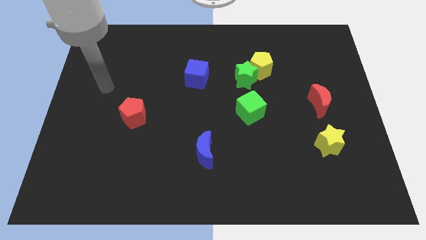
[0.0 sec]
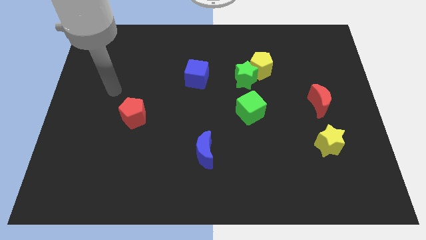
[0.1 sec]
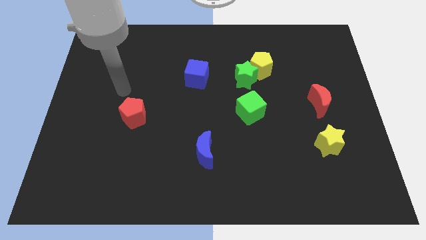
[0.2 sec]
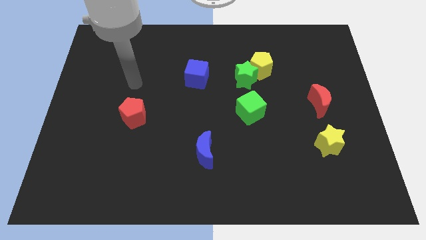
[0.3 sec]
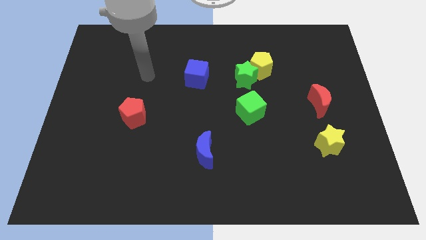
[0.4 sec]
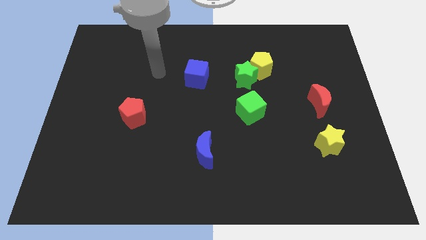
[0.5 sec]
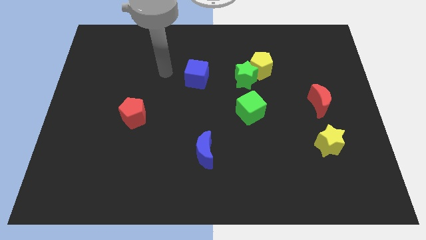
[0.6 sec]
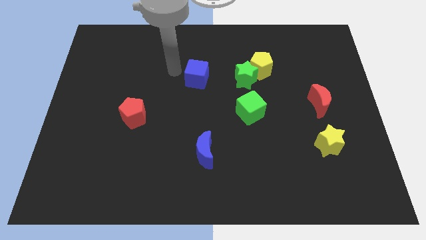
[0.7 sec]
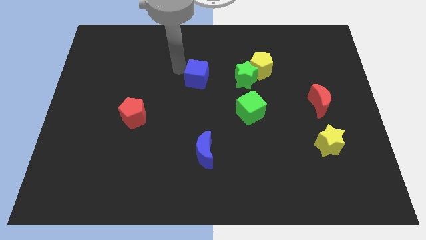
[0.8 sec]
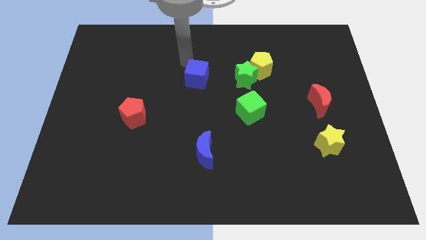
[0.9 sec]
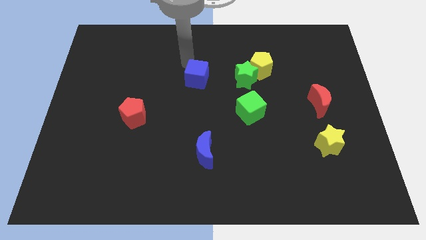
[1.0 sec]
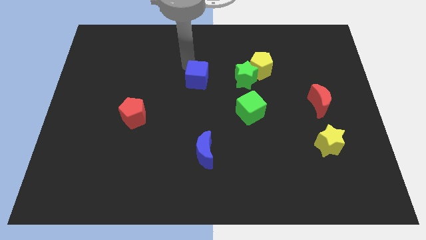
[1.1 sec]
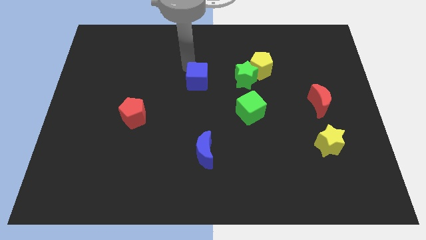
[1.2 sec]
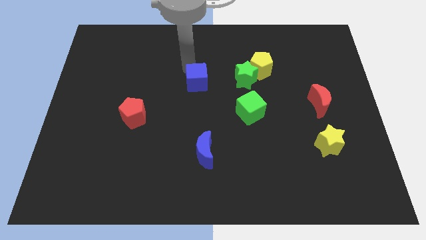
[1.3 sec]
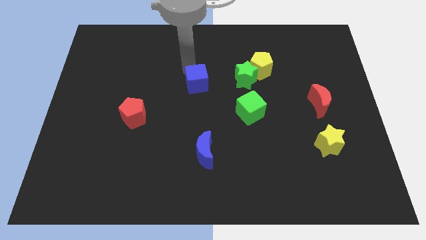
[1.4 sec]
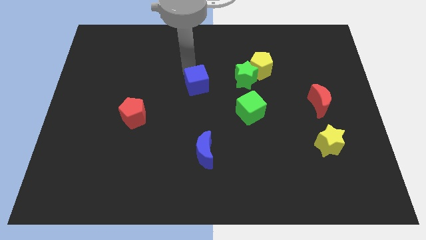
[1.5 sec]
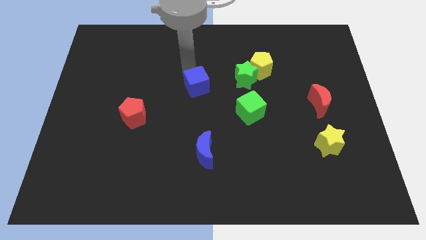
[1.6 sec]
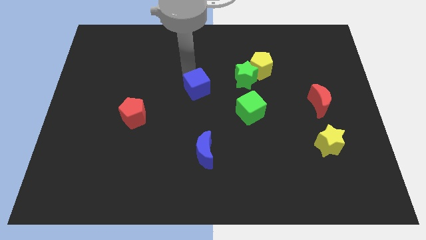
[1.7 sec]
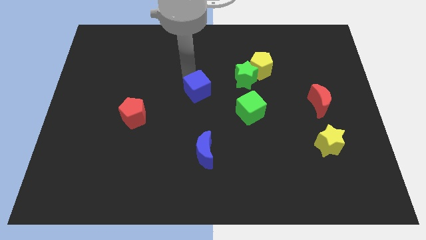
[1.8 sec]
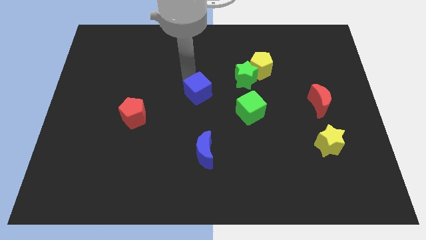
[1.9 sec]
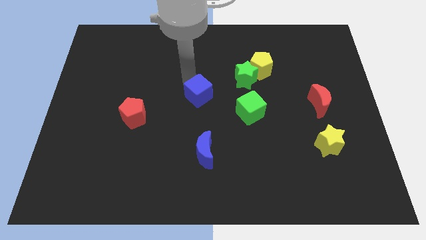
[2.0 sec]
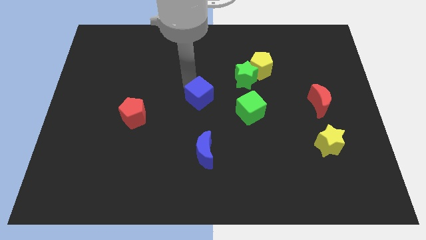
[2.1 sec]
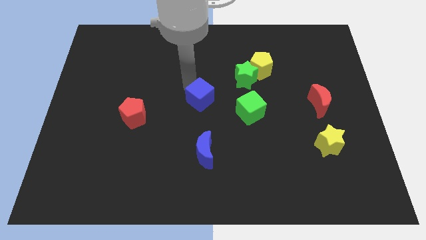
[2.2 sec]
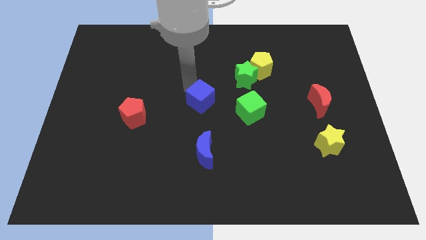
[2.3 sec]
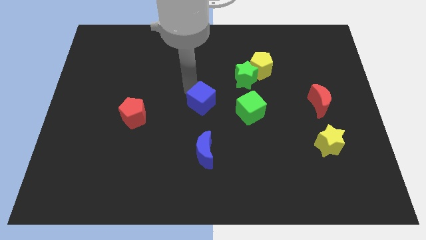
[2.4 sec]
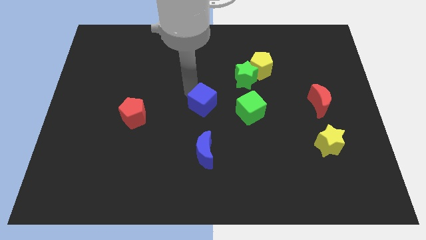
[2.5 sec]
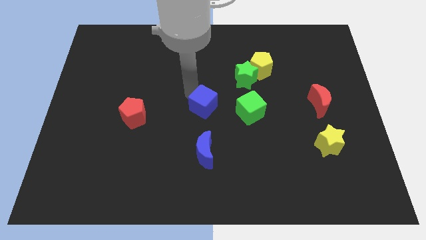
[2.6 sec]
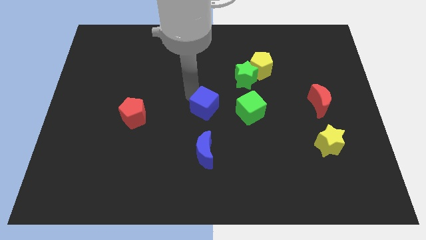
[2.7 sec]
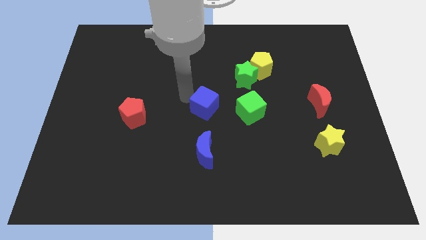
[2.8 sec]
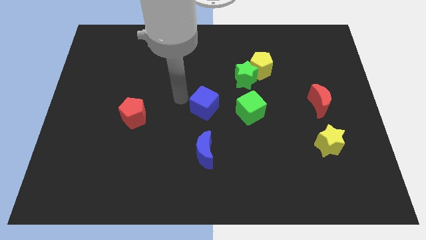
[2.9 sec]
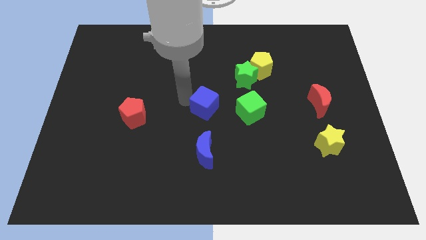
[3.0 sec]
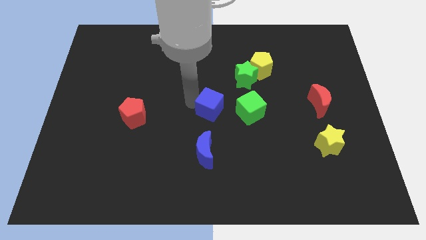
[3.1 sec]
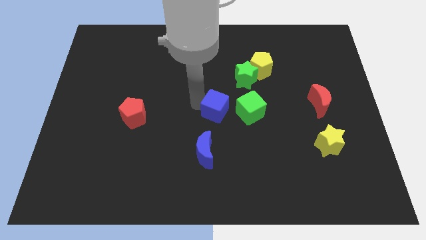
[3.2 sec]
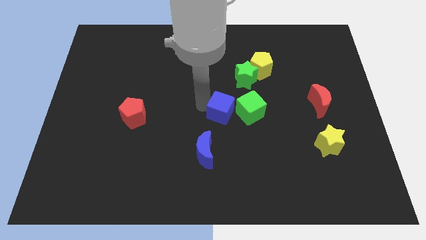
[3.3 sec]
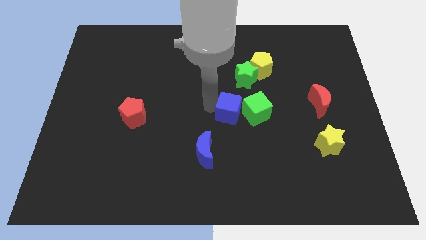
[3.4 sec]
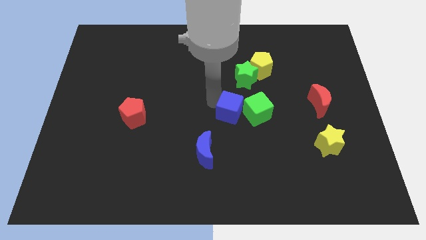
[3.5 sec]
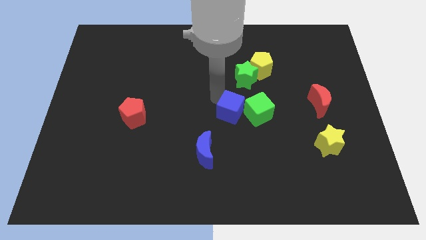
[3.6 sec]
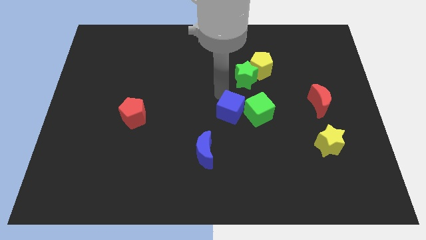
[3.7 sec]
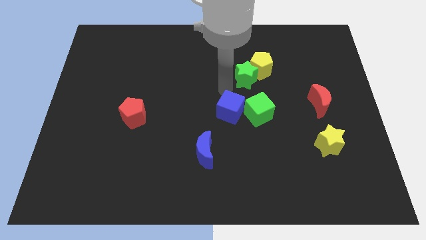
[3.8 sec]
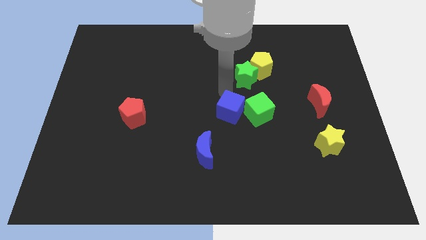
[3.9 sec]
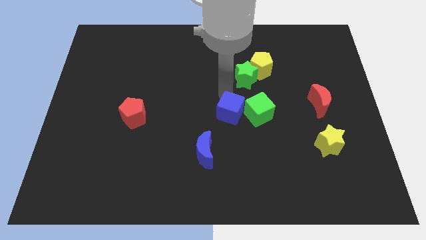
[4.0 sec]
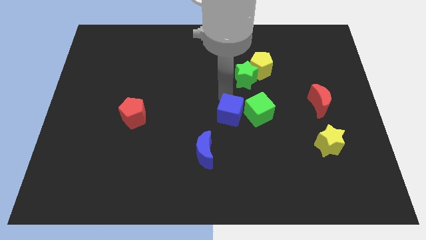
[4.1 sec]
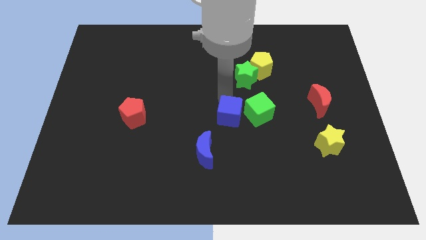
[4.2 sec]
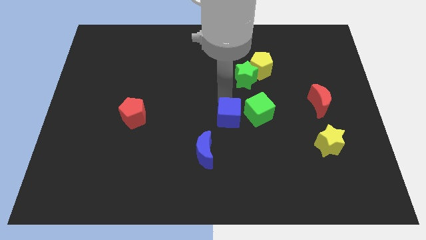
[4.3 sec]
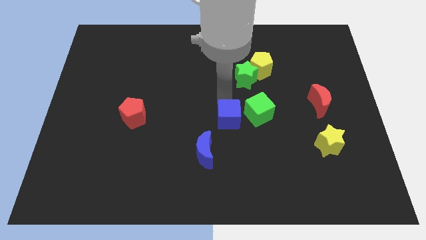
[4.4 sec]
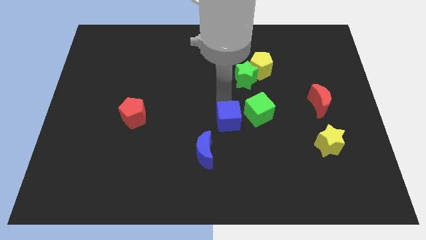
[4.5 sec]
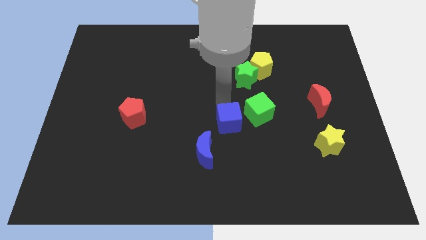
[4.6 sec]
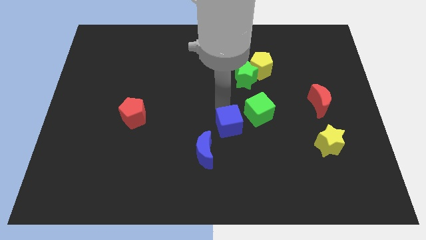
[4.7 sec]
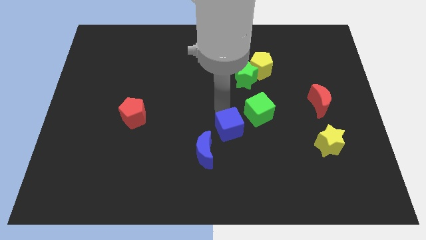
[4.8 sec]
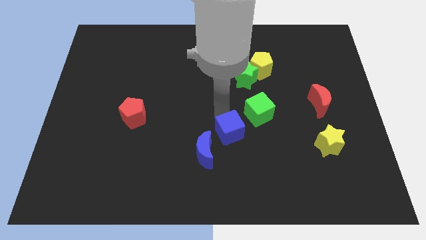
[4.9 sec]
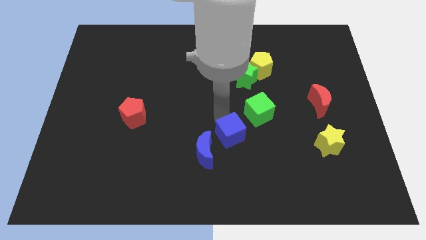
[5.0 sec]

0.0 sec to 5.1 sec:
push the blue cube just right of the blue moon

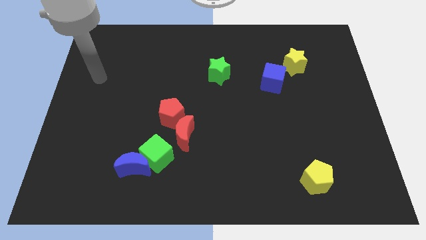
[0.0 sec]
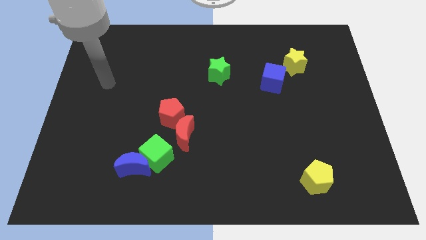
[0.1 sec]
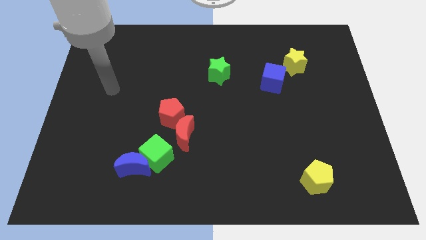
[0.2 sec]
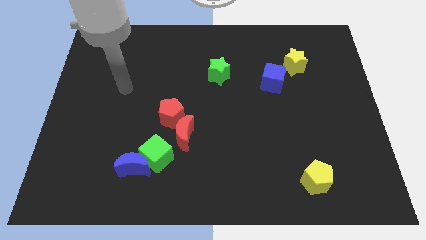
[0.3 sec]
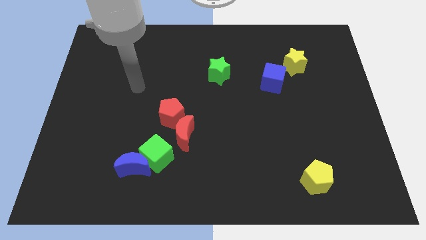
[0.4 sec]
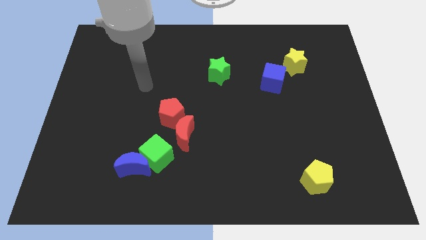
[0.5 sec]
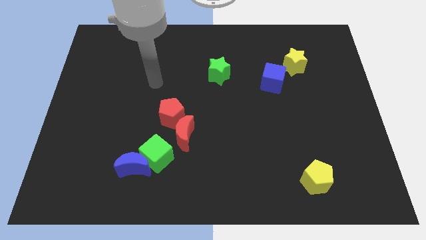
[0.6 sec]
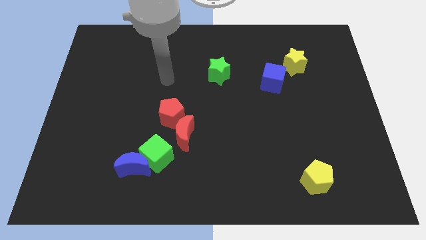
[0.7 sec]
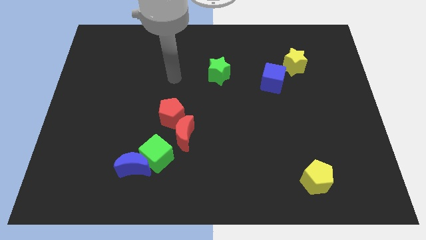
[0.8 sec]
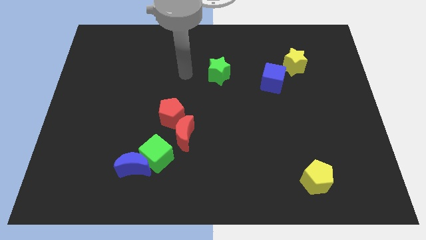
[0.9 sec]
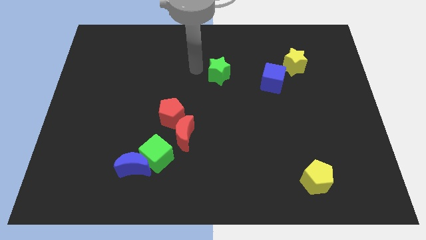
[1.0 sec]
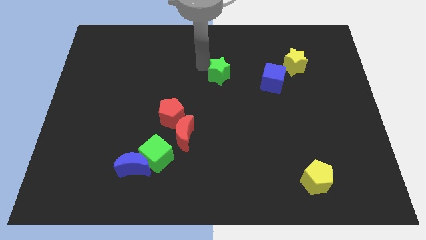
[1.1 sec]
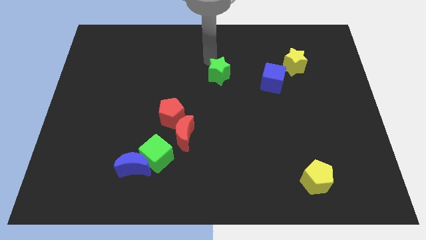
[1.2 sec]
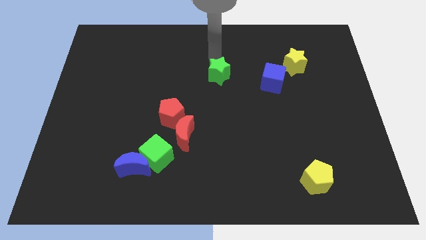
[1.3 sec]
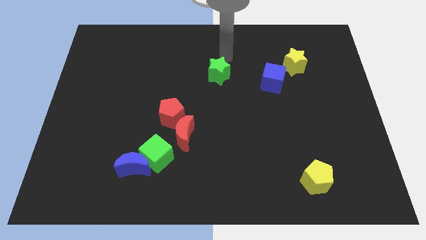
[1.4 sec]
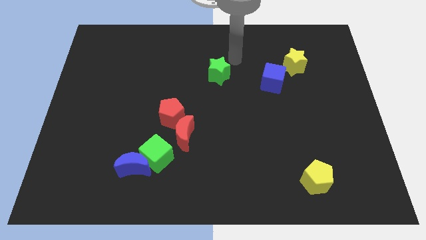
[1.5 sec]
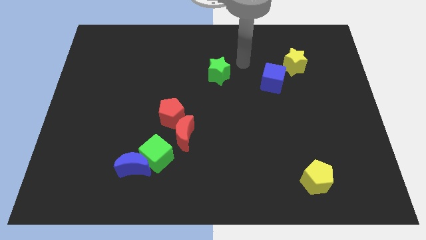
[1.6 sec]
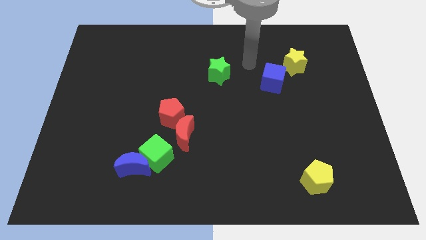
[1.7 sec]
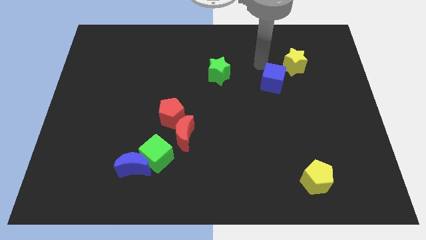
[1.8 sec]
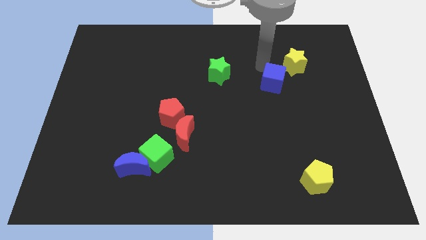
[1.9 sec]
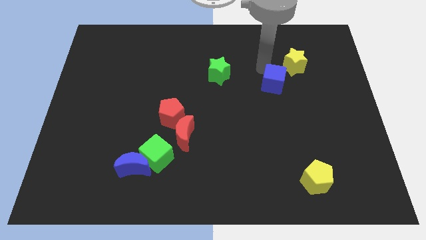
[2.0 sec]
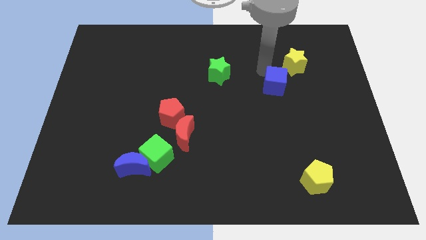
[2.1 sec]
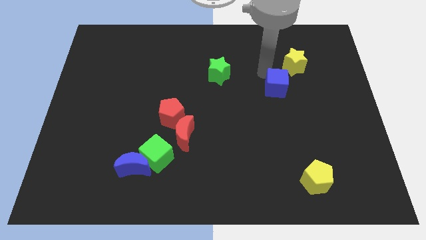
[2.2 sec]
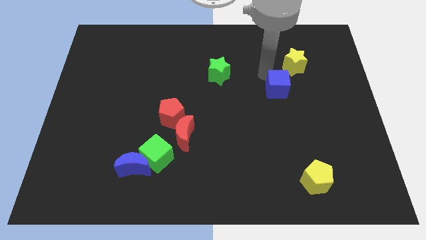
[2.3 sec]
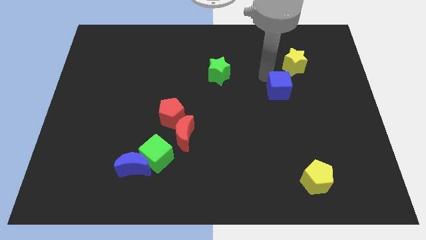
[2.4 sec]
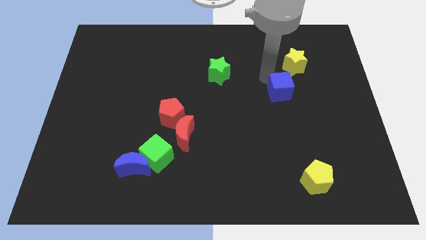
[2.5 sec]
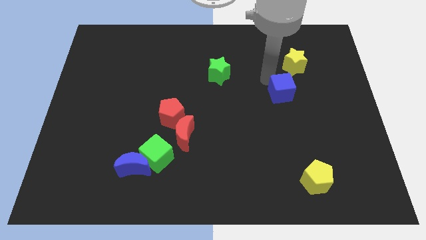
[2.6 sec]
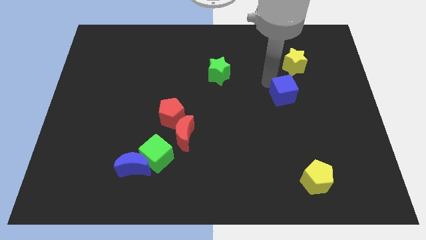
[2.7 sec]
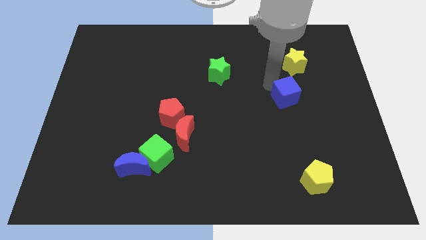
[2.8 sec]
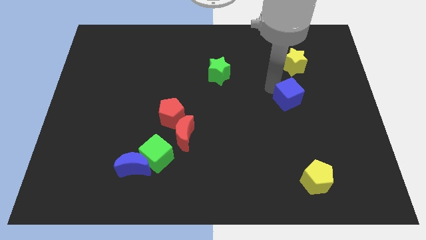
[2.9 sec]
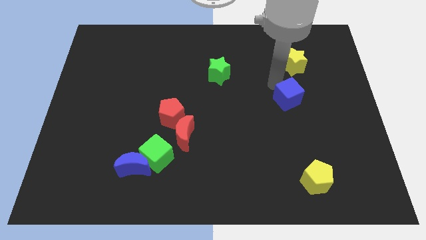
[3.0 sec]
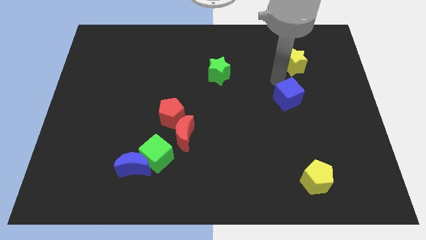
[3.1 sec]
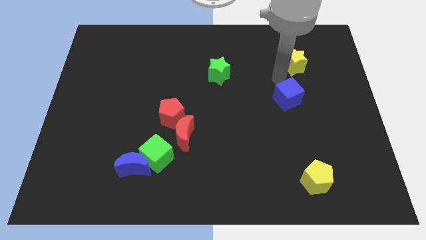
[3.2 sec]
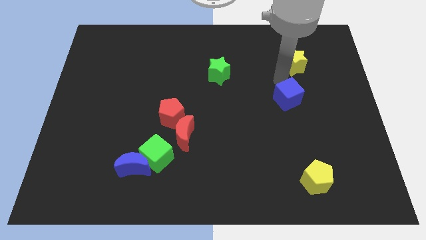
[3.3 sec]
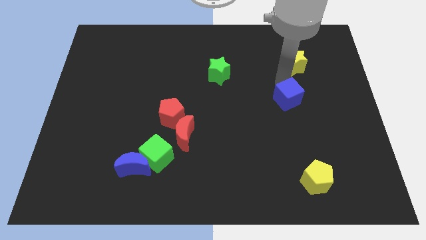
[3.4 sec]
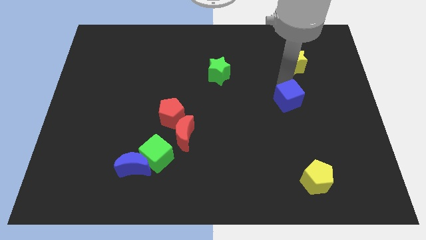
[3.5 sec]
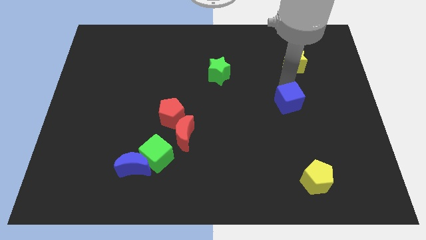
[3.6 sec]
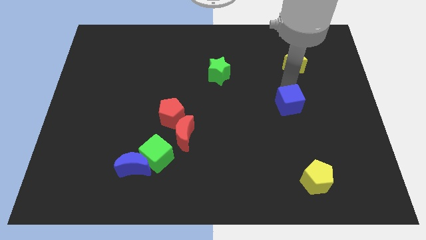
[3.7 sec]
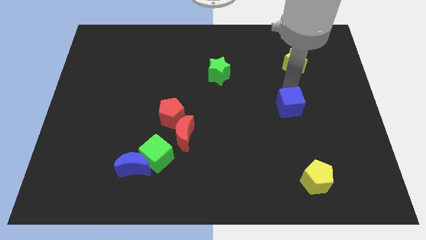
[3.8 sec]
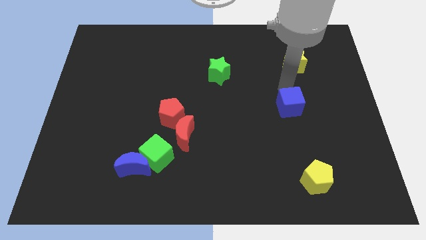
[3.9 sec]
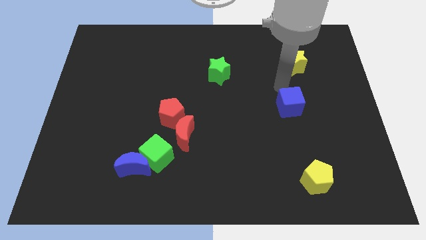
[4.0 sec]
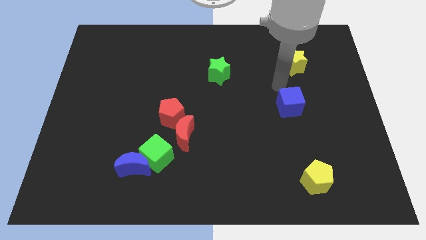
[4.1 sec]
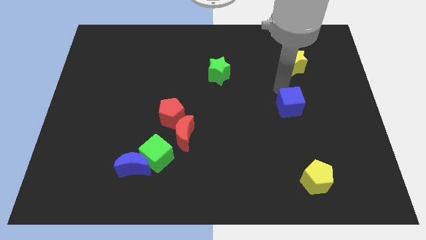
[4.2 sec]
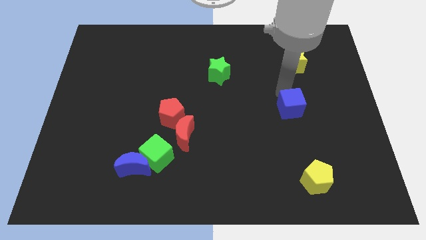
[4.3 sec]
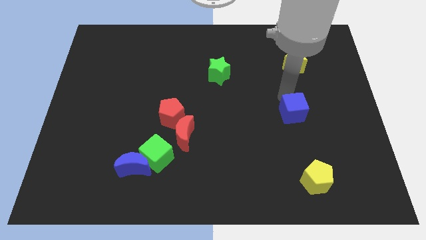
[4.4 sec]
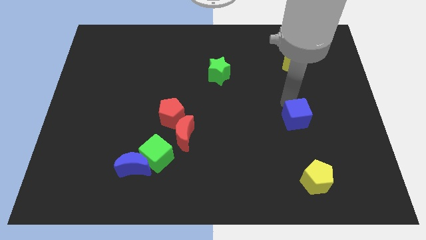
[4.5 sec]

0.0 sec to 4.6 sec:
put the blue cube to the top of the yellow pentagon
